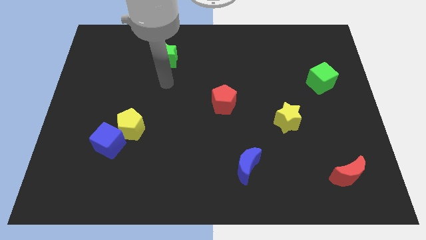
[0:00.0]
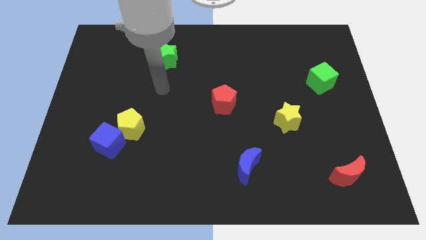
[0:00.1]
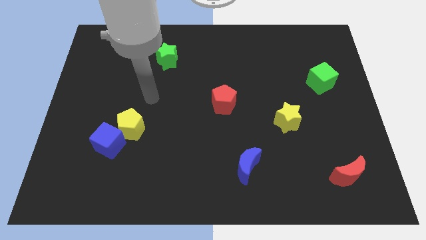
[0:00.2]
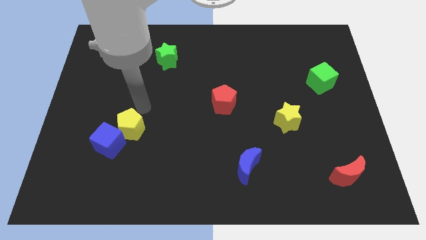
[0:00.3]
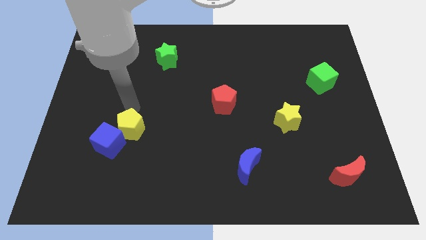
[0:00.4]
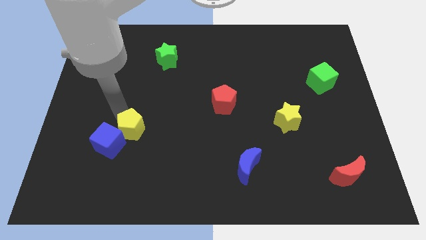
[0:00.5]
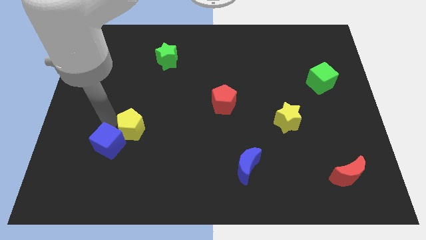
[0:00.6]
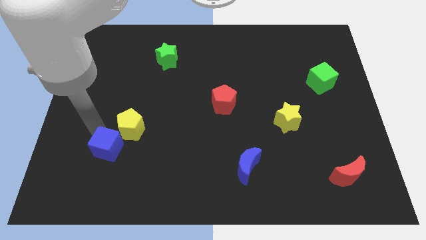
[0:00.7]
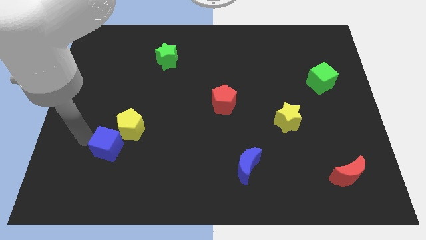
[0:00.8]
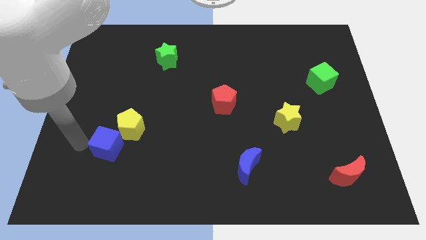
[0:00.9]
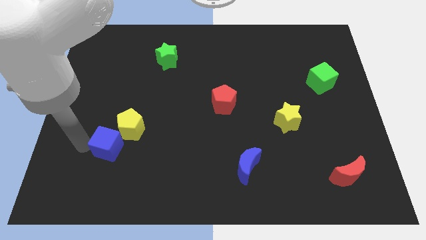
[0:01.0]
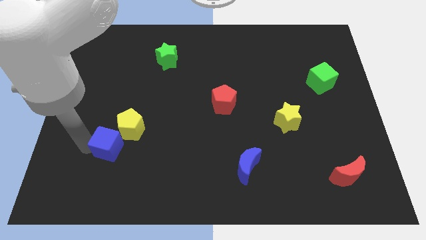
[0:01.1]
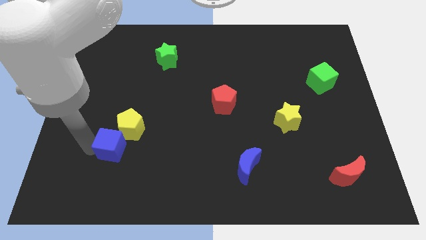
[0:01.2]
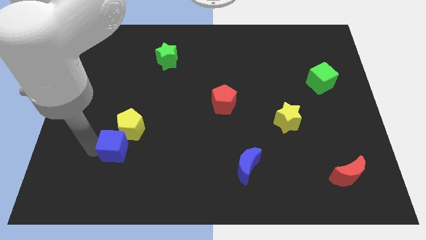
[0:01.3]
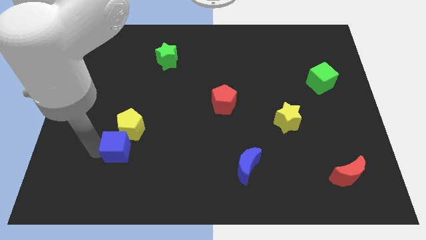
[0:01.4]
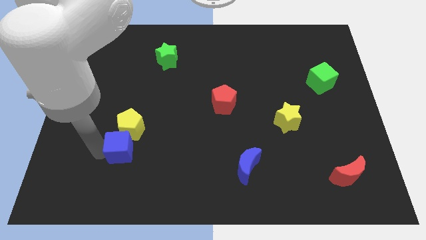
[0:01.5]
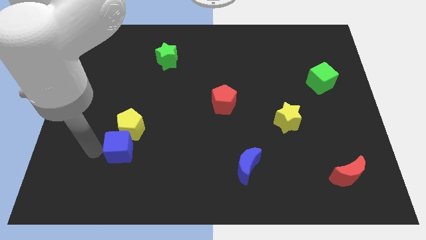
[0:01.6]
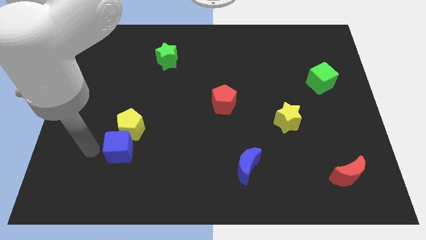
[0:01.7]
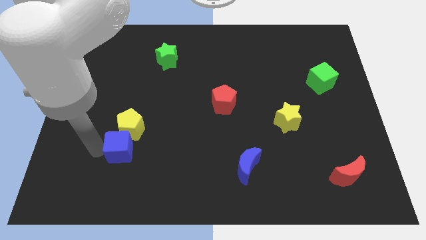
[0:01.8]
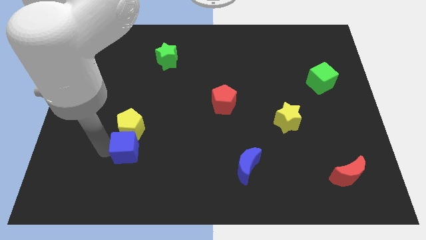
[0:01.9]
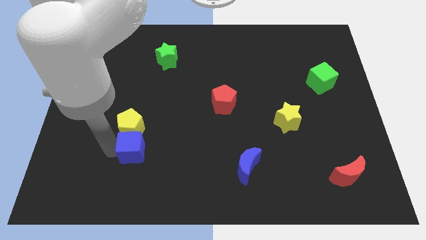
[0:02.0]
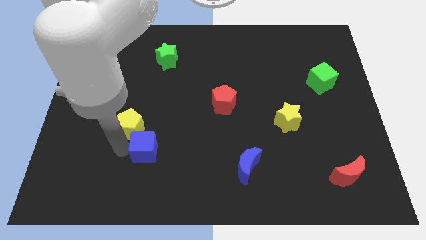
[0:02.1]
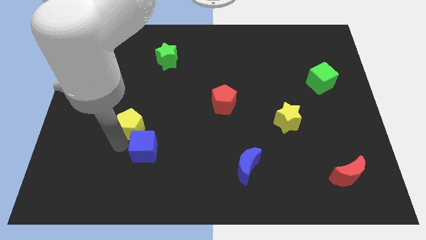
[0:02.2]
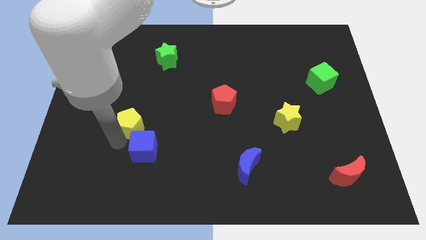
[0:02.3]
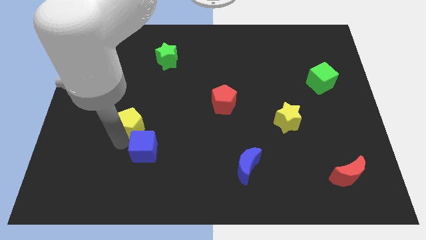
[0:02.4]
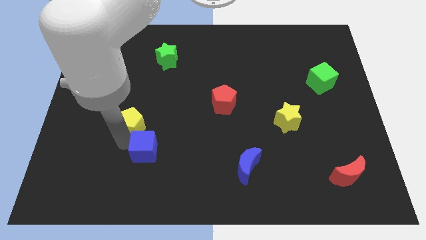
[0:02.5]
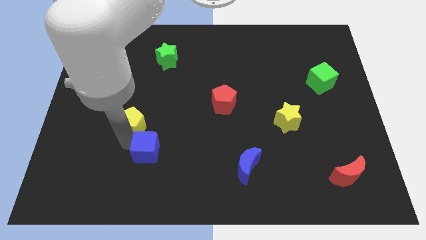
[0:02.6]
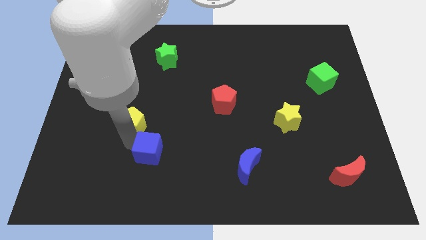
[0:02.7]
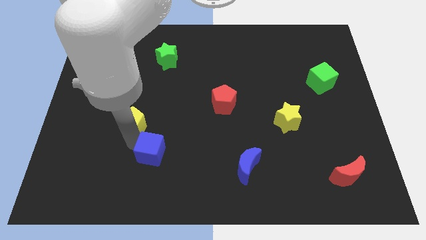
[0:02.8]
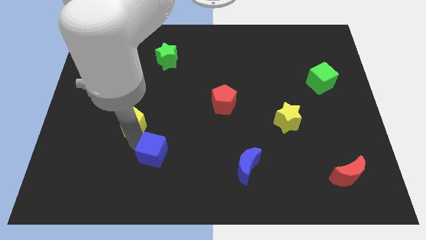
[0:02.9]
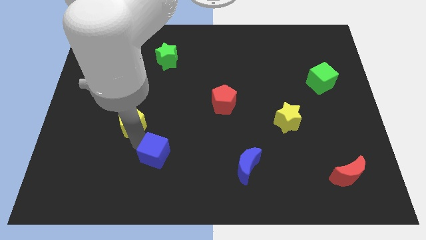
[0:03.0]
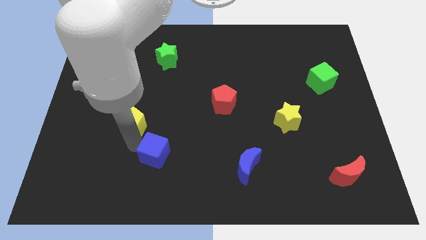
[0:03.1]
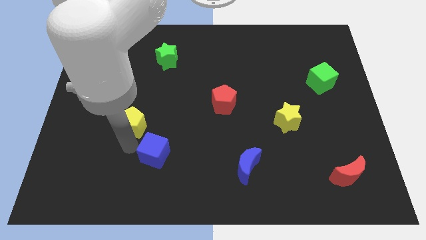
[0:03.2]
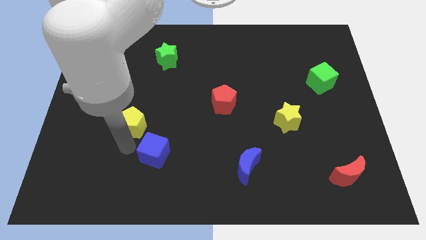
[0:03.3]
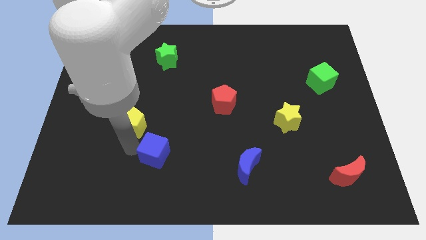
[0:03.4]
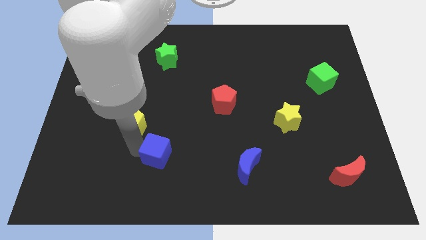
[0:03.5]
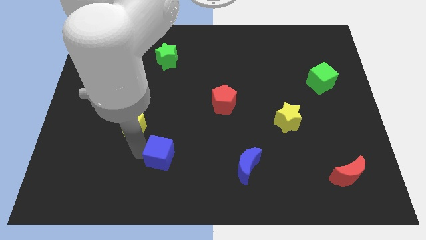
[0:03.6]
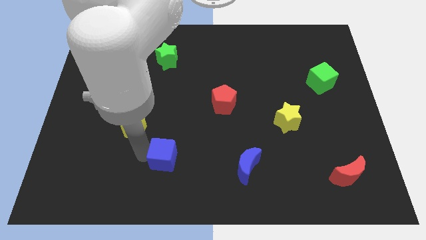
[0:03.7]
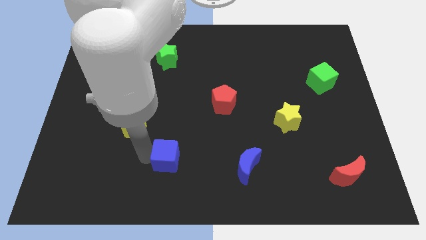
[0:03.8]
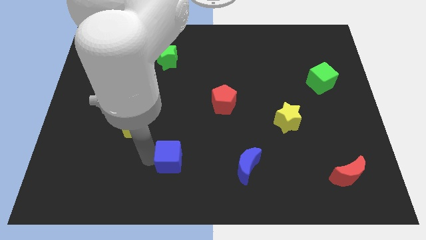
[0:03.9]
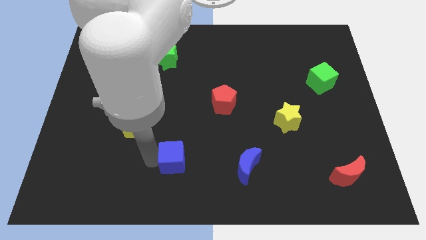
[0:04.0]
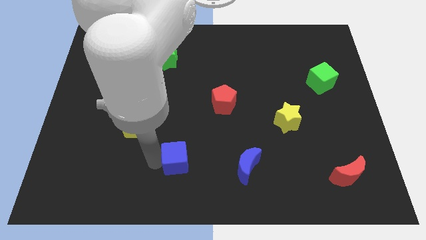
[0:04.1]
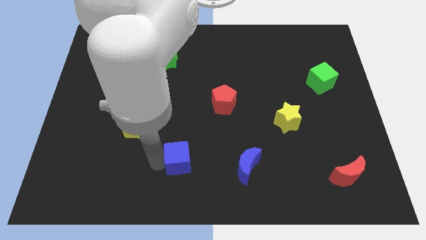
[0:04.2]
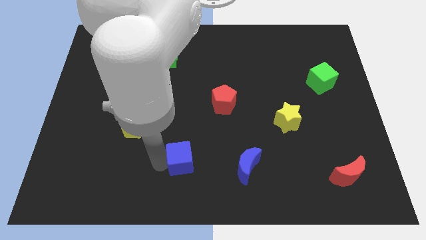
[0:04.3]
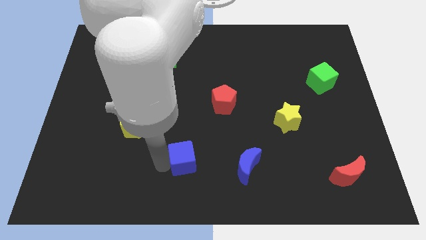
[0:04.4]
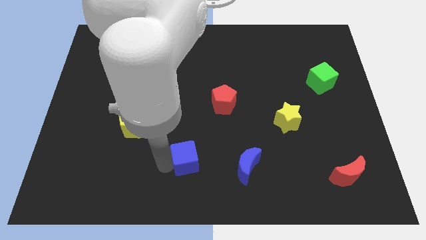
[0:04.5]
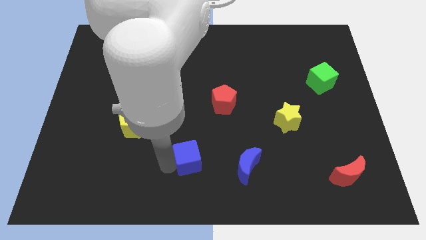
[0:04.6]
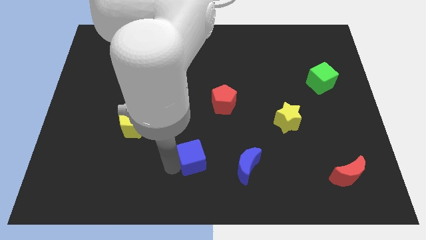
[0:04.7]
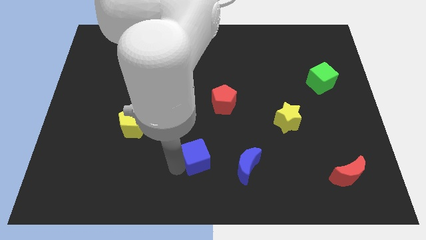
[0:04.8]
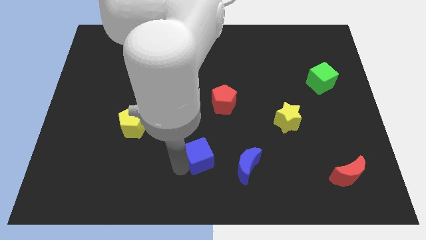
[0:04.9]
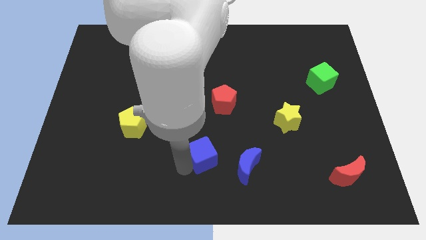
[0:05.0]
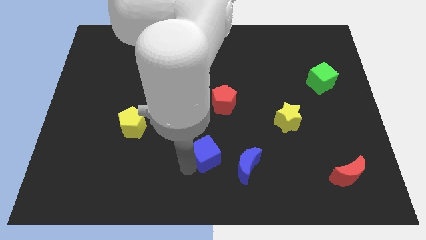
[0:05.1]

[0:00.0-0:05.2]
push the blue cube to the bottom of the red pentagon

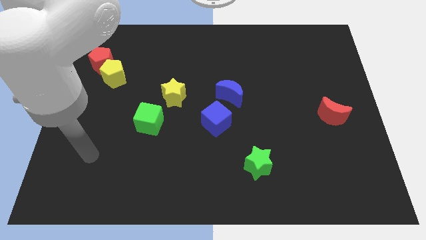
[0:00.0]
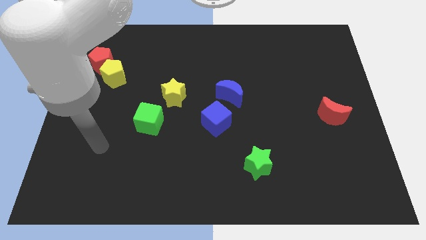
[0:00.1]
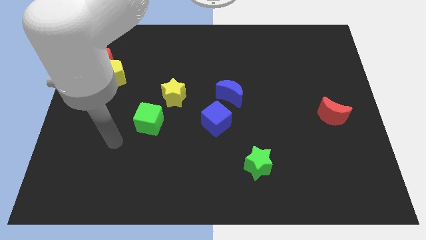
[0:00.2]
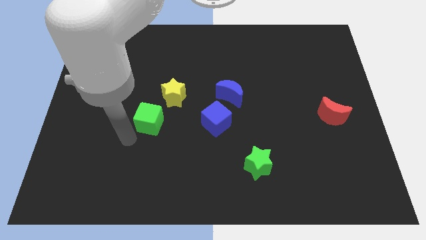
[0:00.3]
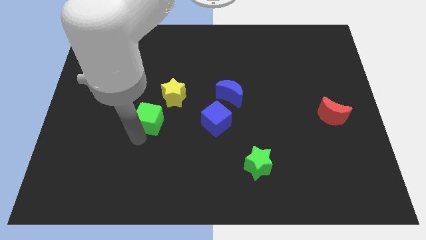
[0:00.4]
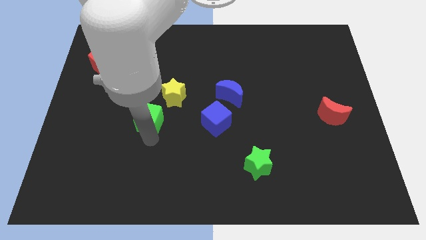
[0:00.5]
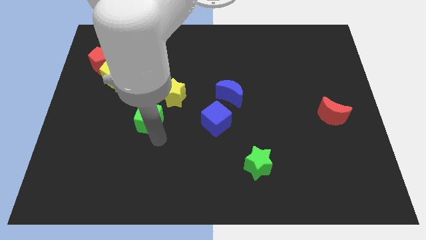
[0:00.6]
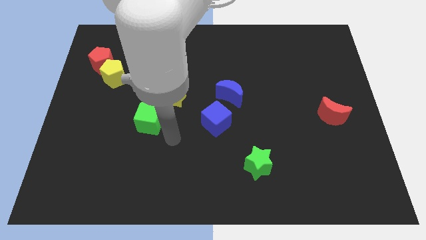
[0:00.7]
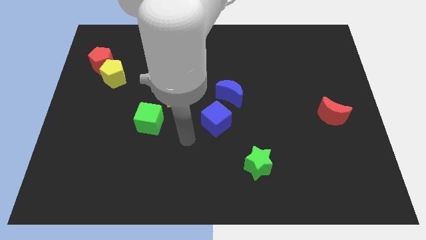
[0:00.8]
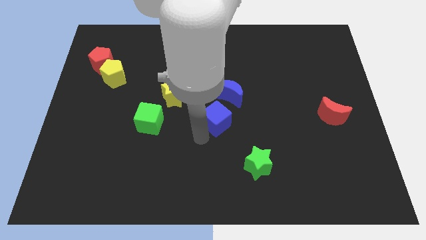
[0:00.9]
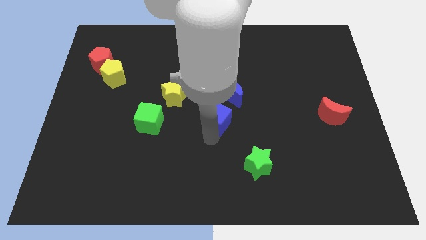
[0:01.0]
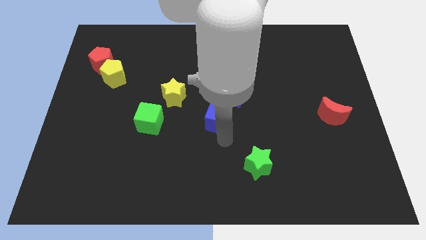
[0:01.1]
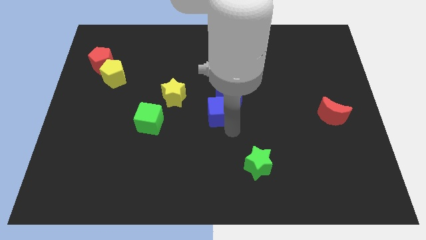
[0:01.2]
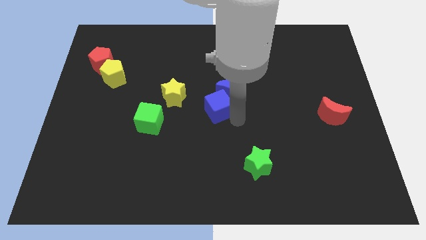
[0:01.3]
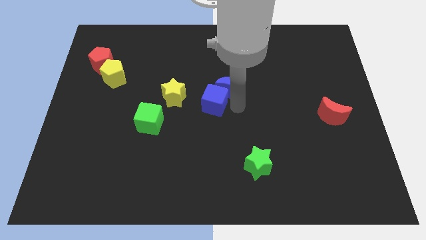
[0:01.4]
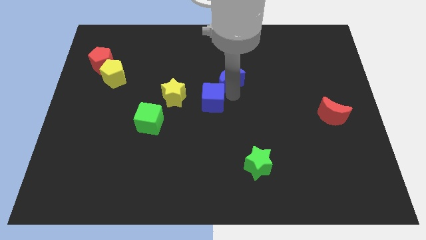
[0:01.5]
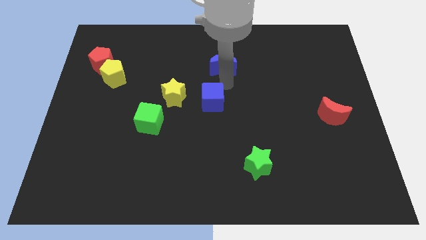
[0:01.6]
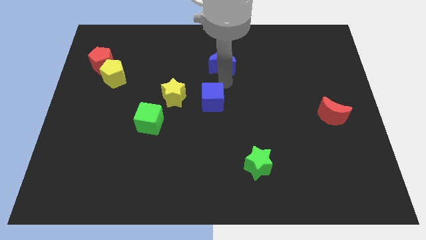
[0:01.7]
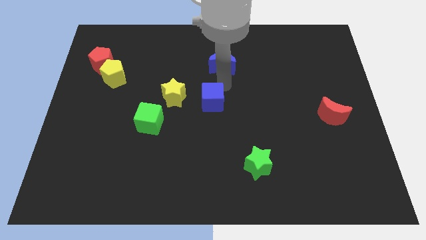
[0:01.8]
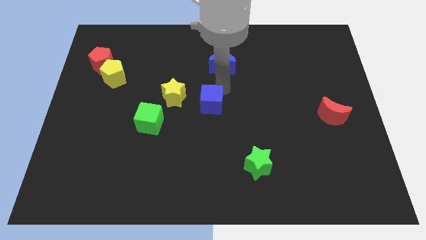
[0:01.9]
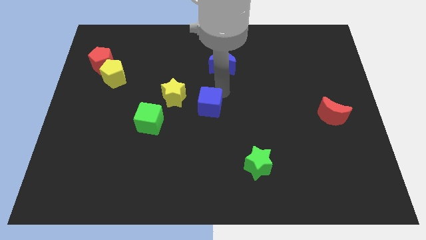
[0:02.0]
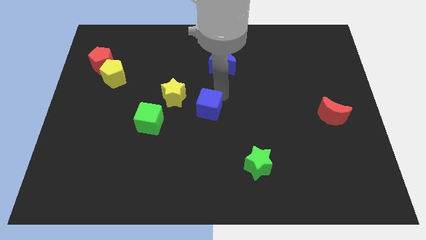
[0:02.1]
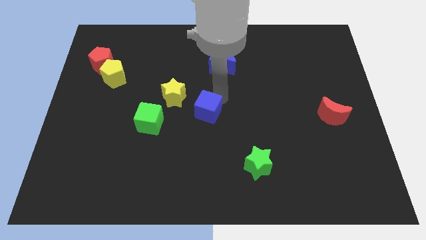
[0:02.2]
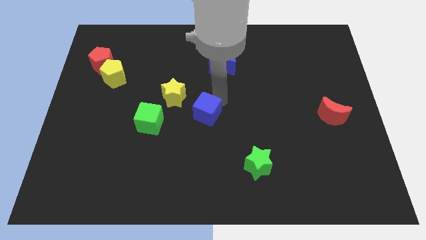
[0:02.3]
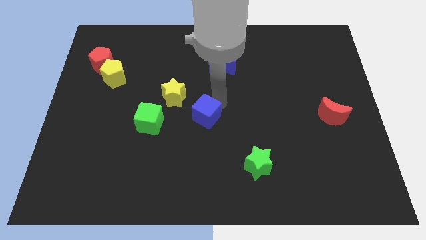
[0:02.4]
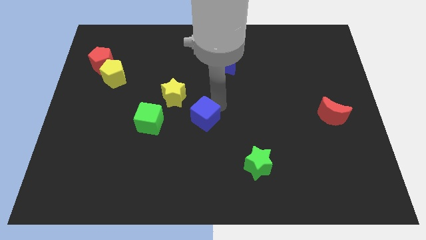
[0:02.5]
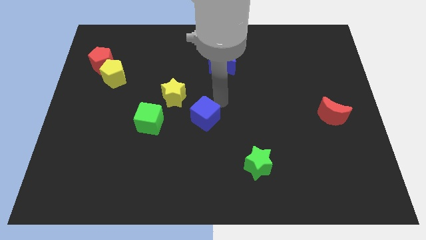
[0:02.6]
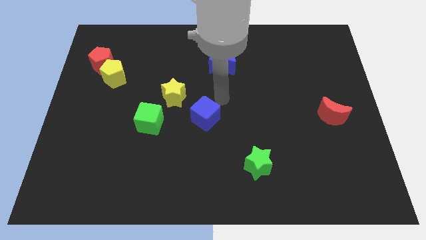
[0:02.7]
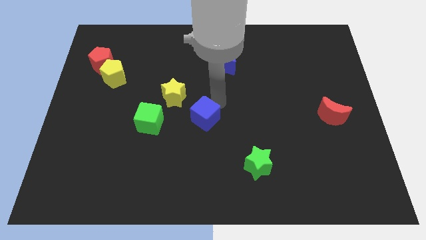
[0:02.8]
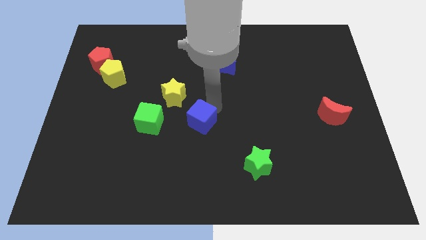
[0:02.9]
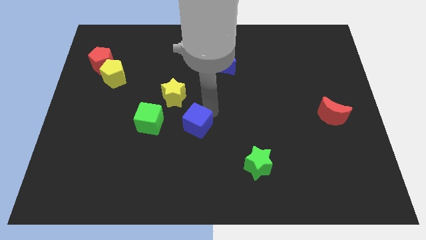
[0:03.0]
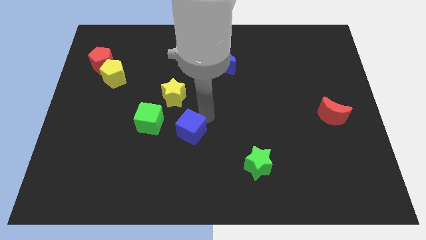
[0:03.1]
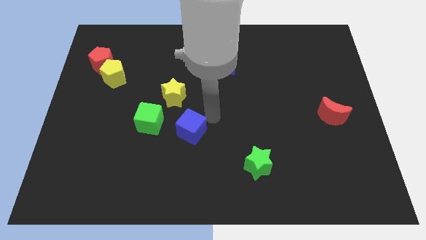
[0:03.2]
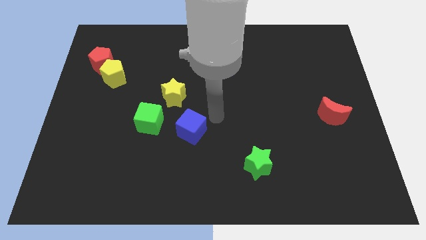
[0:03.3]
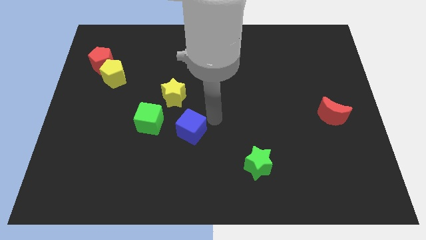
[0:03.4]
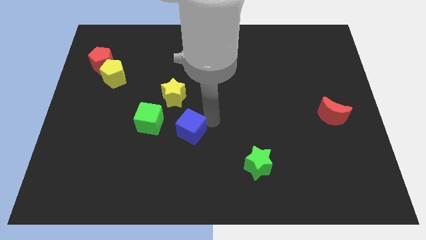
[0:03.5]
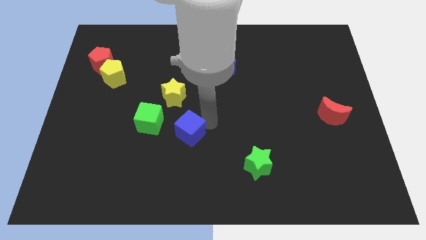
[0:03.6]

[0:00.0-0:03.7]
move the blue cube to the bottom right of the green cube
